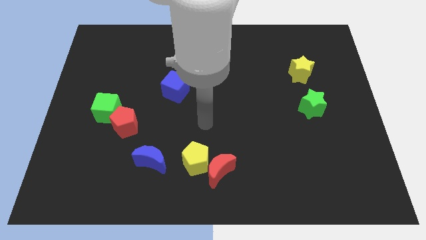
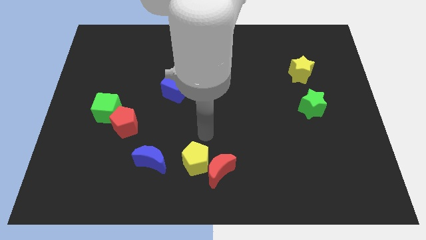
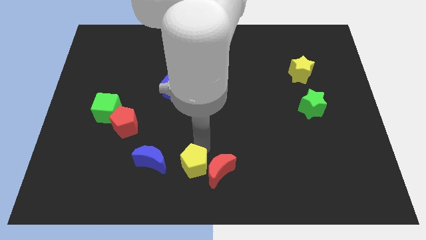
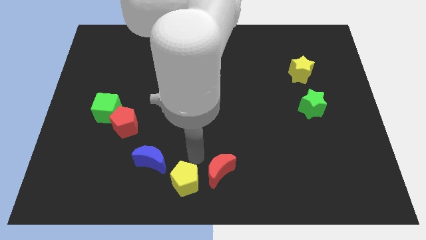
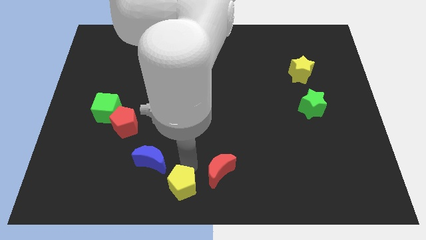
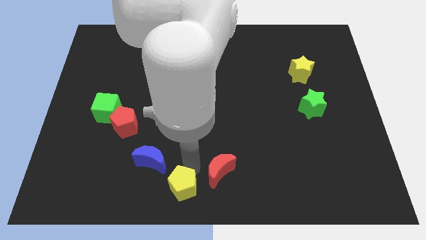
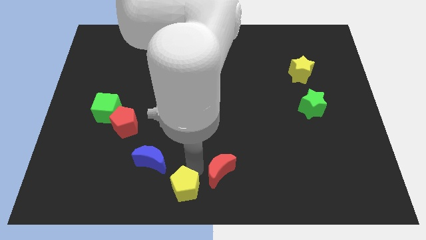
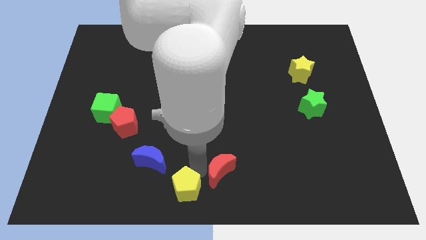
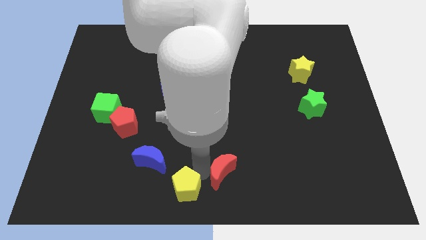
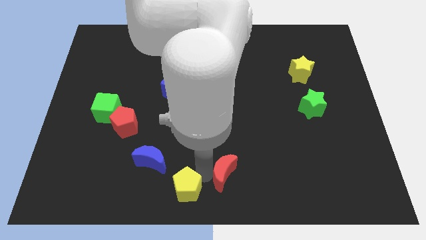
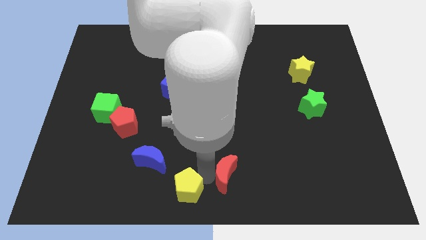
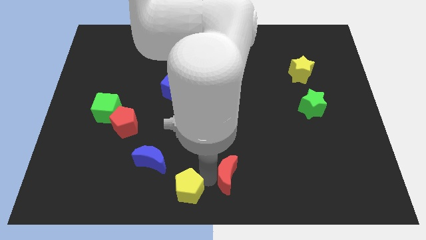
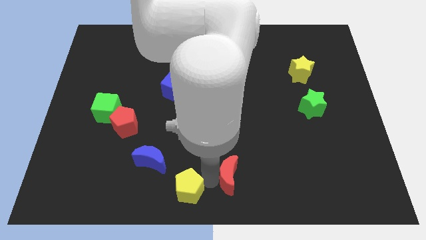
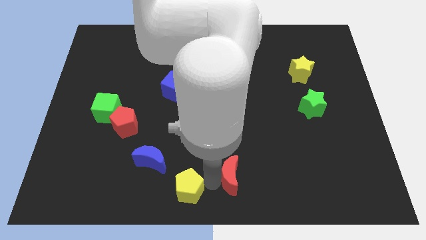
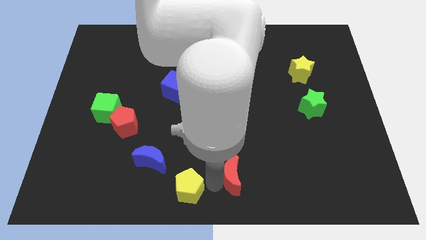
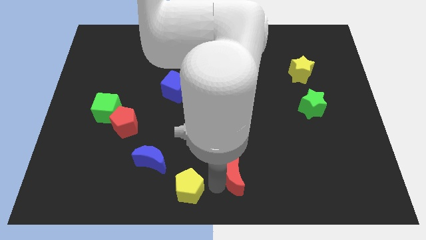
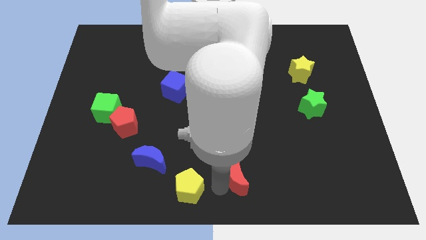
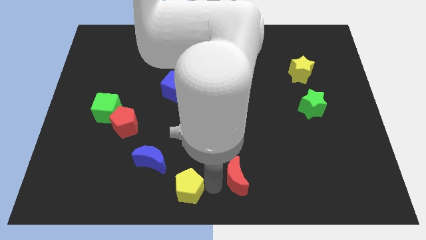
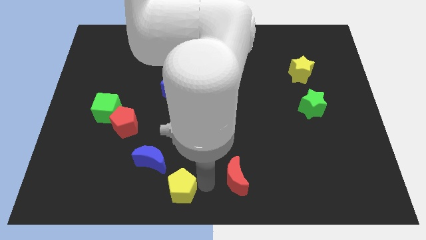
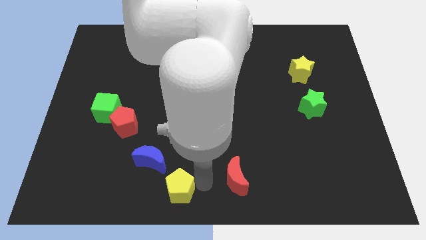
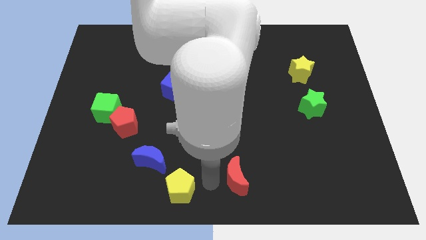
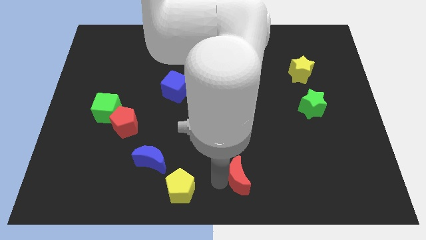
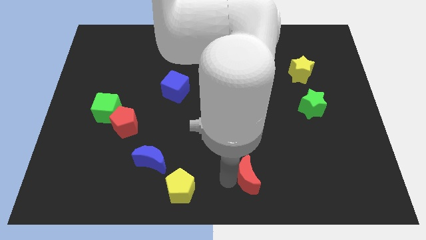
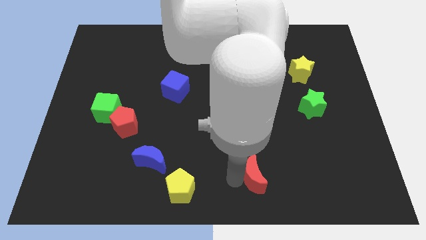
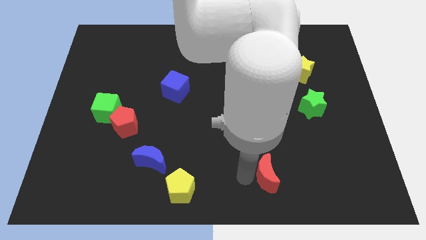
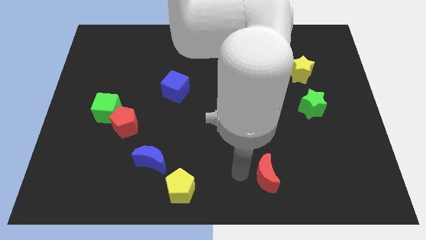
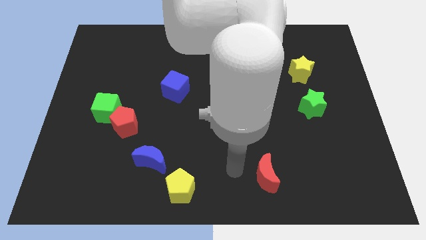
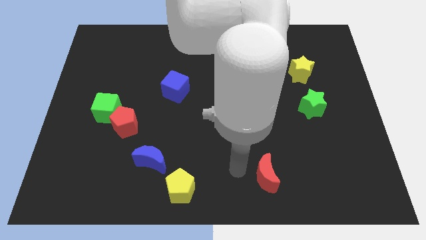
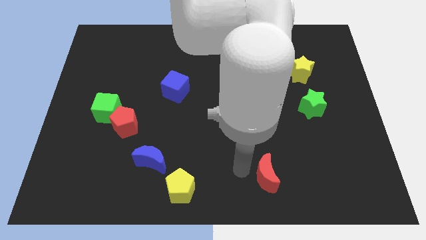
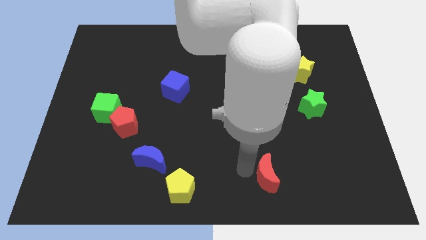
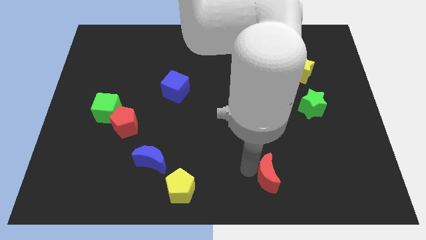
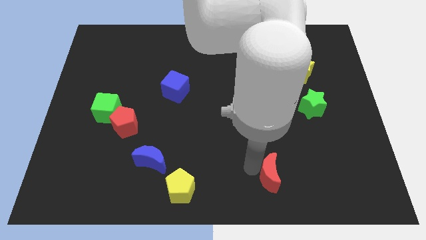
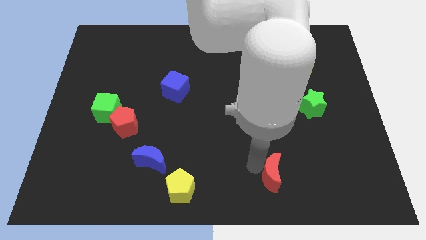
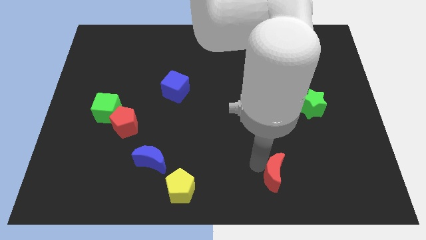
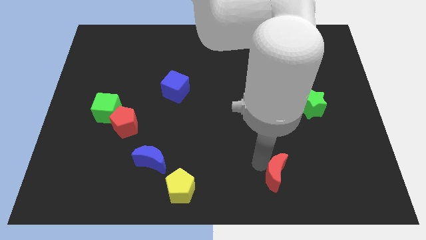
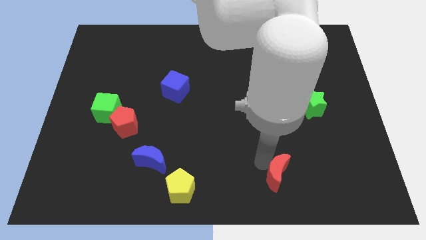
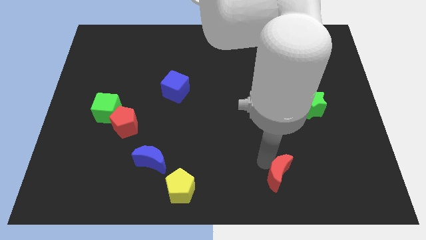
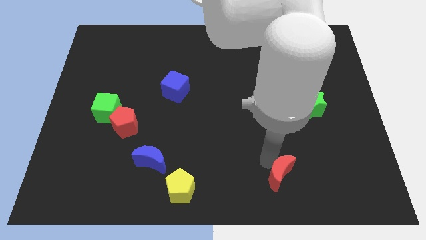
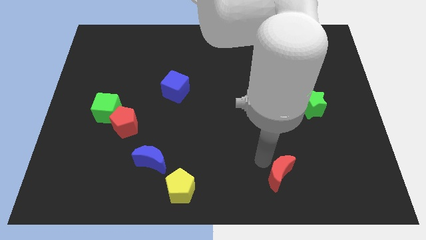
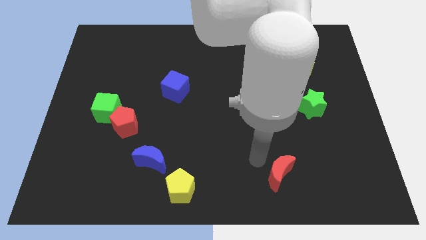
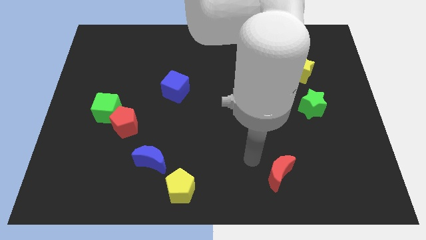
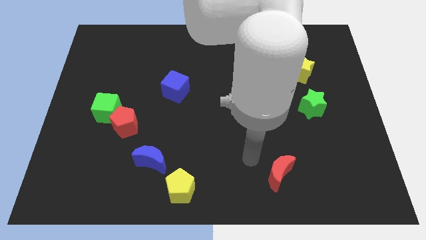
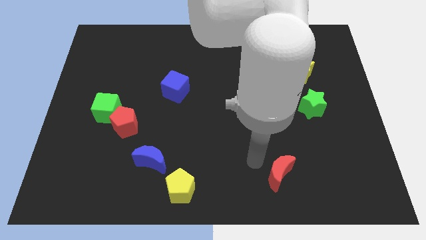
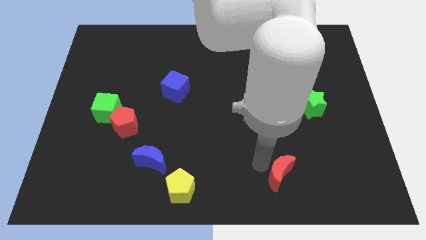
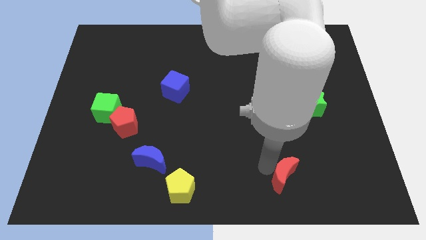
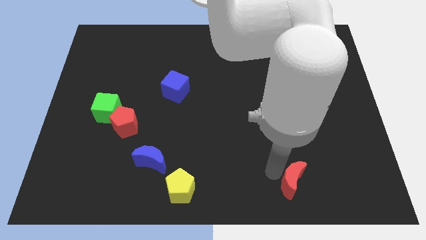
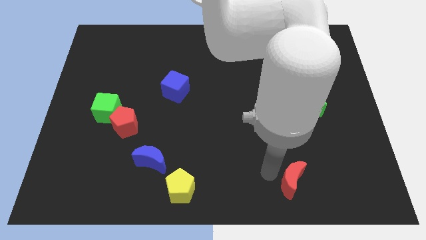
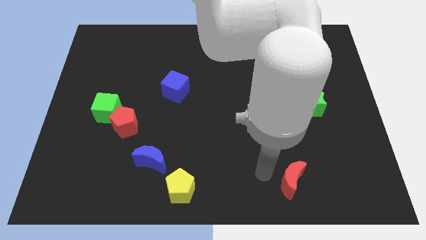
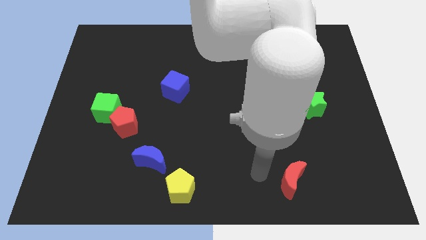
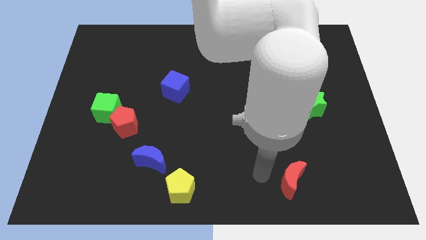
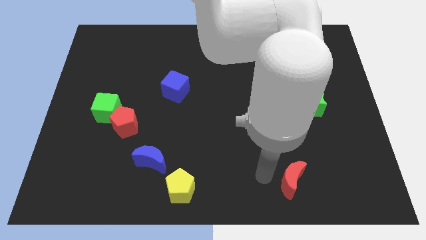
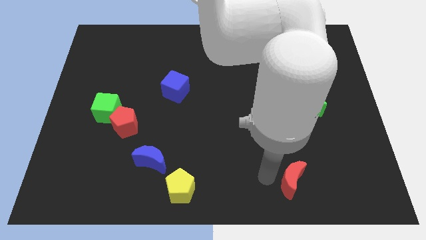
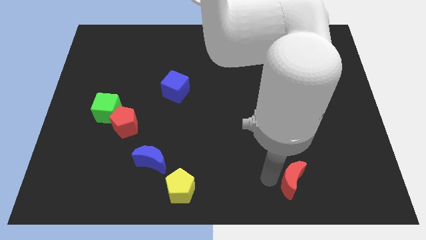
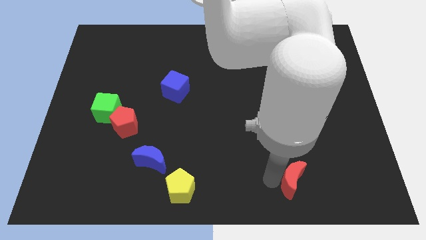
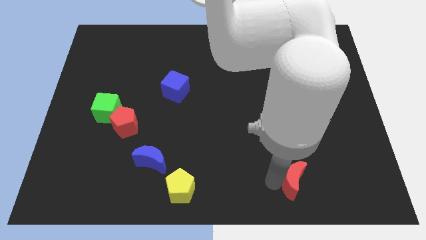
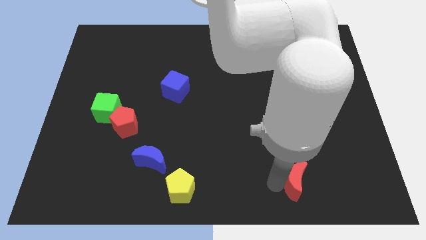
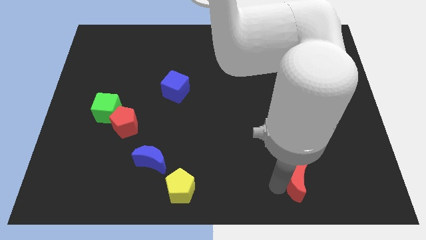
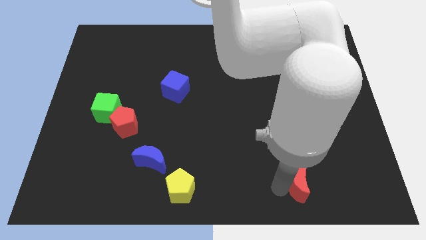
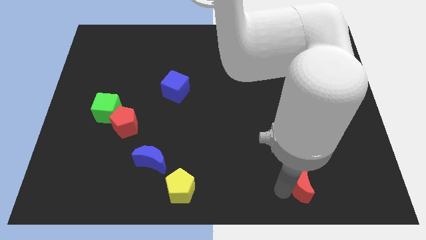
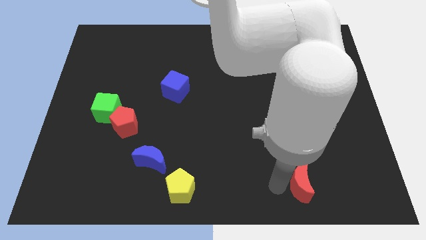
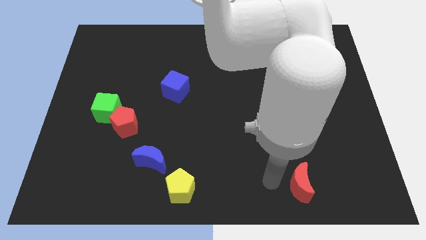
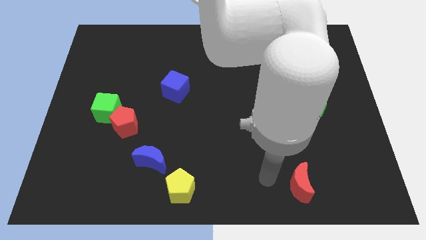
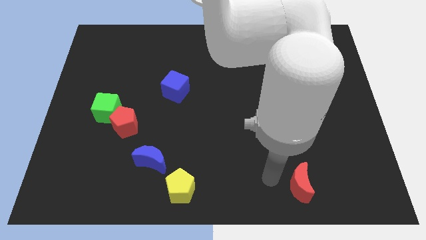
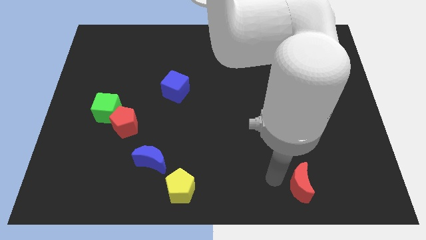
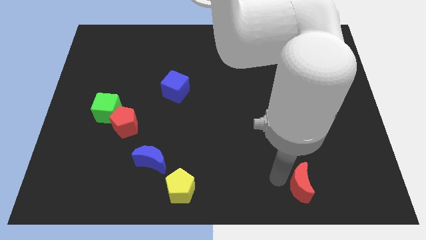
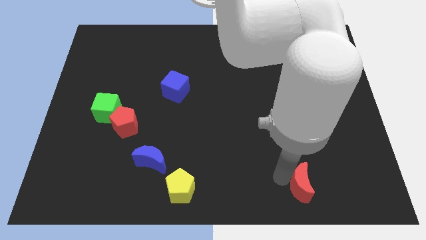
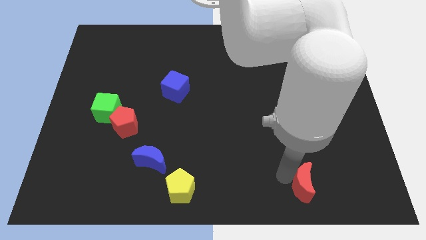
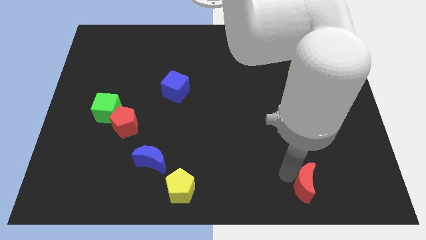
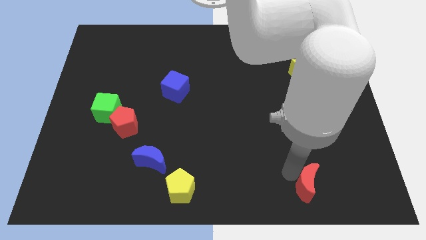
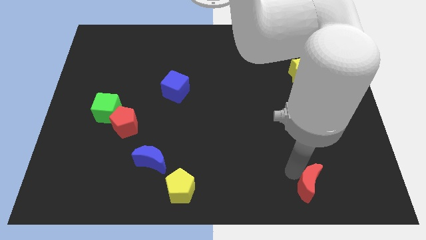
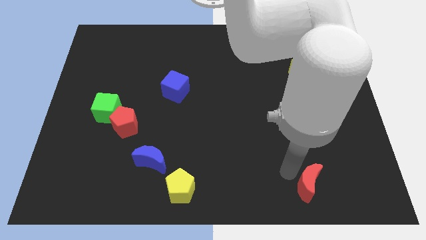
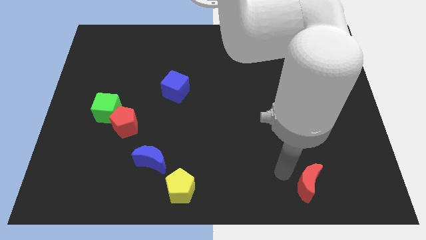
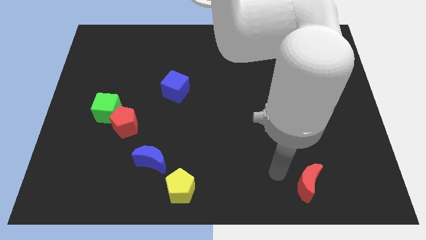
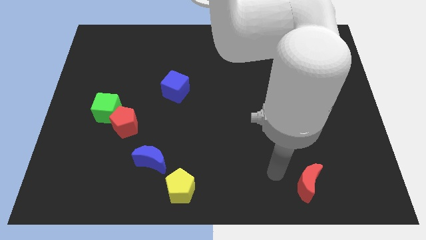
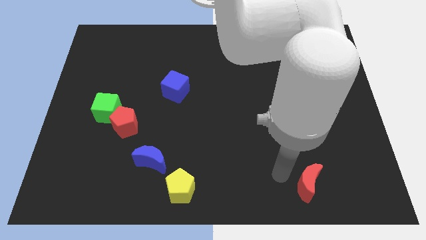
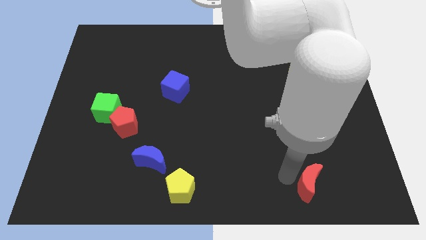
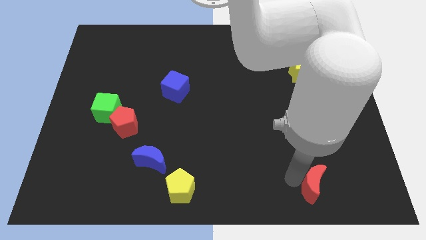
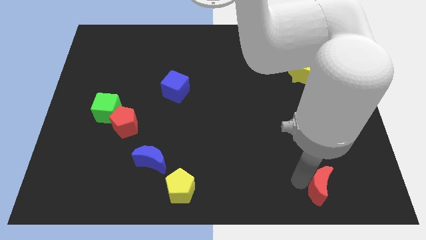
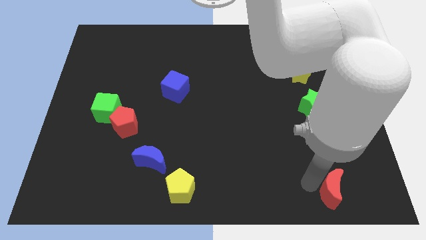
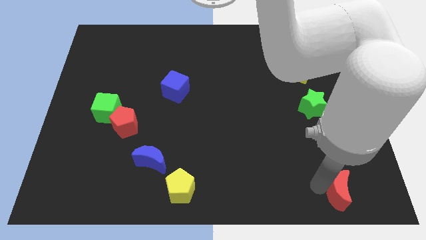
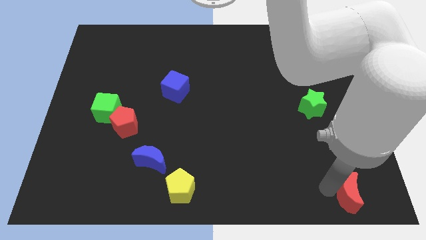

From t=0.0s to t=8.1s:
slide the red moon to the bottom right of the board
